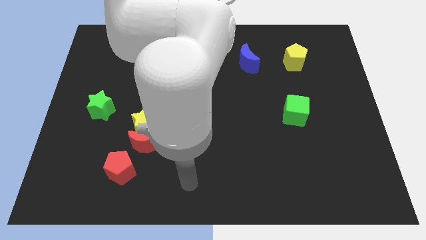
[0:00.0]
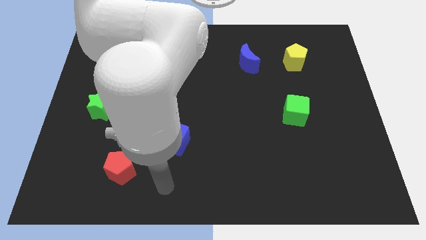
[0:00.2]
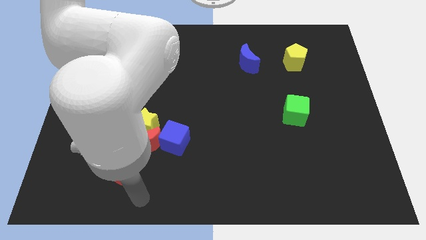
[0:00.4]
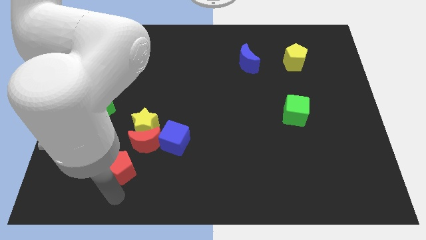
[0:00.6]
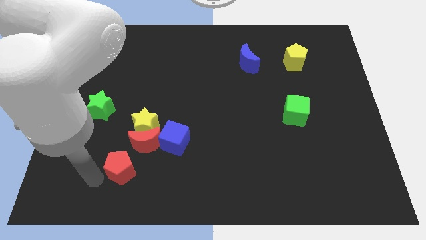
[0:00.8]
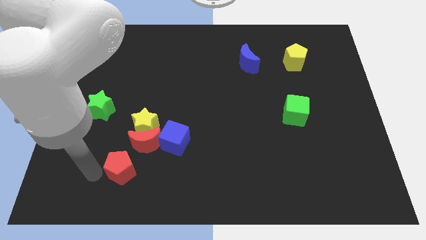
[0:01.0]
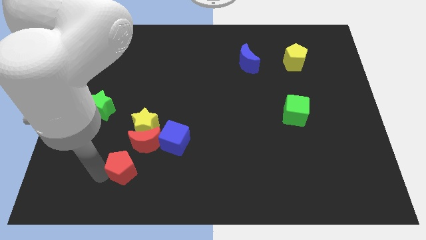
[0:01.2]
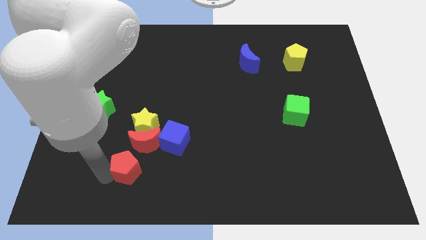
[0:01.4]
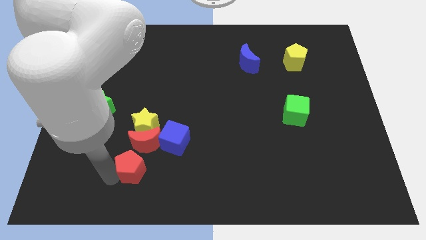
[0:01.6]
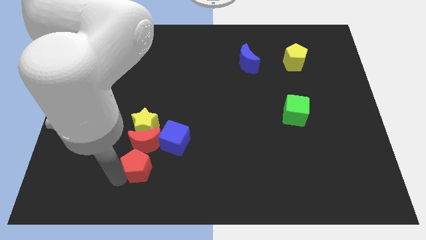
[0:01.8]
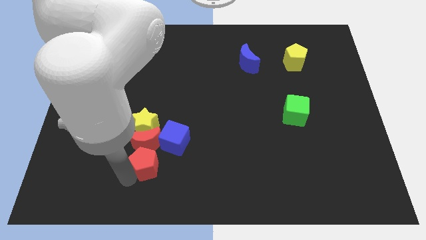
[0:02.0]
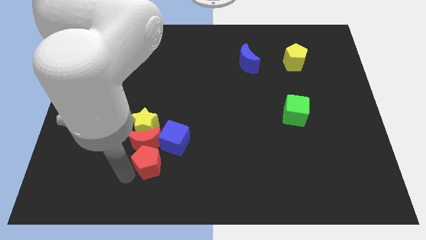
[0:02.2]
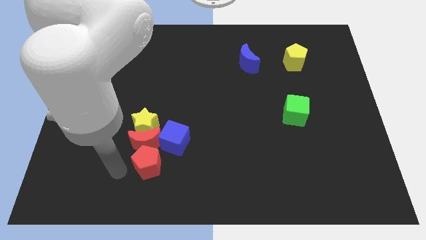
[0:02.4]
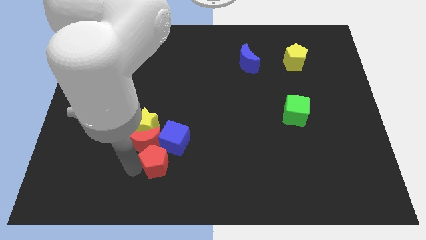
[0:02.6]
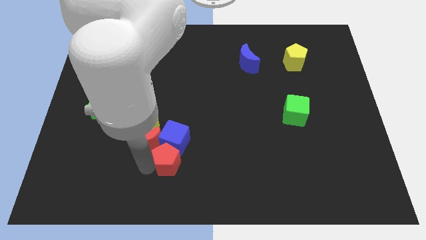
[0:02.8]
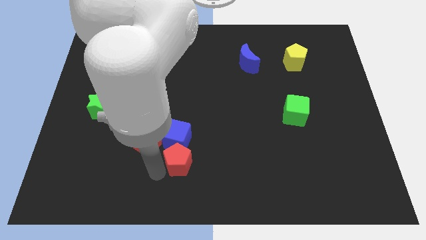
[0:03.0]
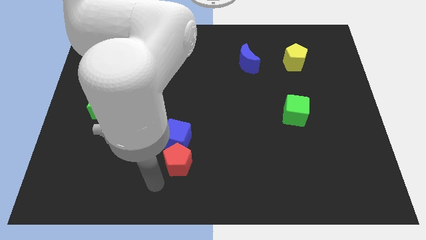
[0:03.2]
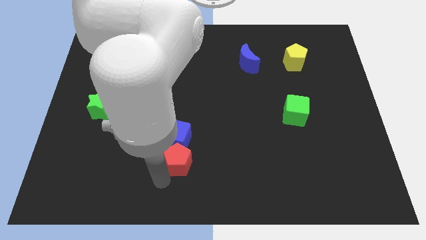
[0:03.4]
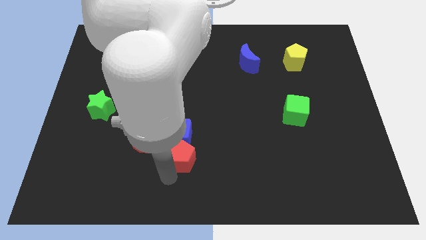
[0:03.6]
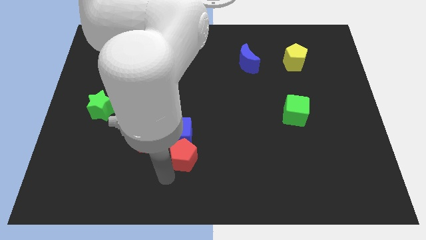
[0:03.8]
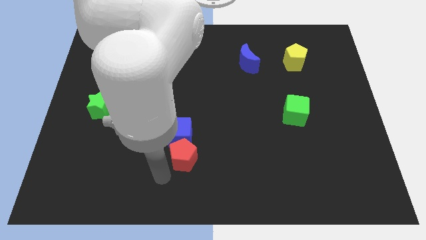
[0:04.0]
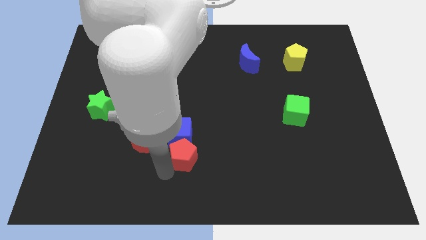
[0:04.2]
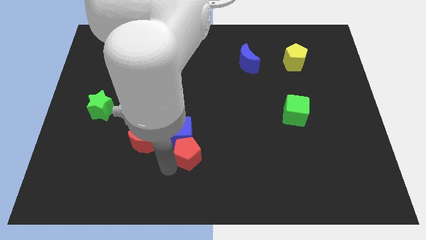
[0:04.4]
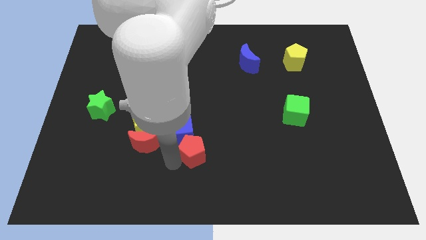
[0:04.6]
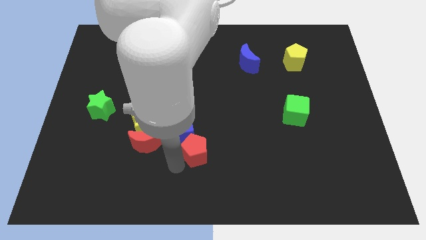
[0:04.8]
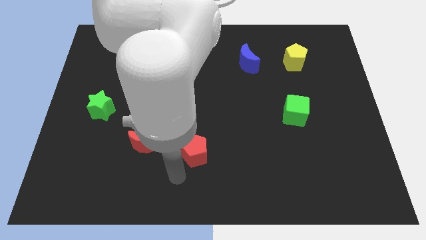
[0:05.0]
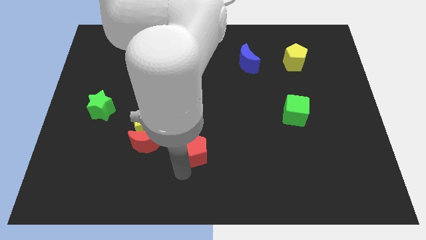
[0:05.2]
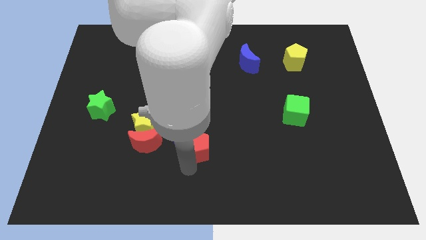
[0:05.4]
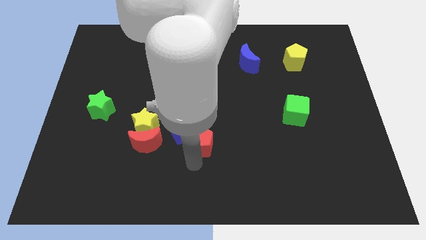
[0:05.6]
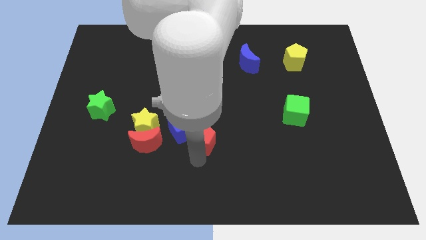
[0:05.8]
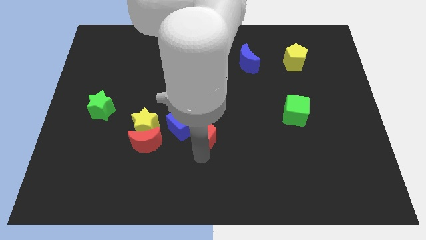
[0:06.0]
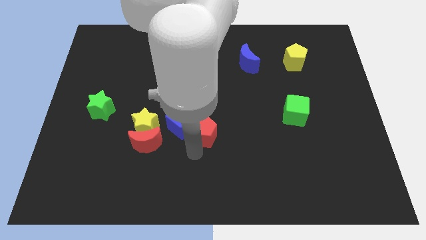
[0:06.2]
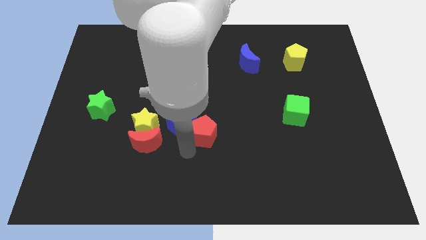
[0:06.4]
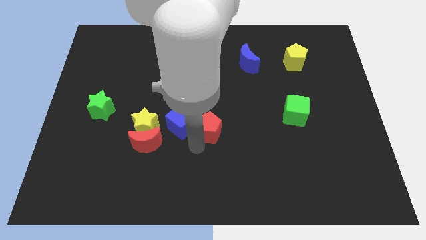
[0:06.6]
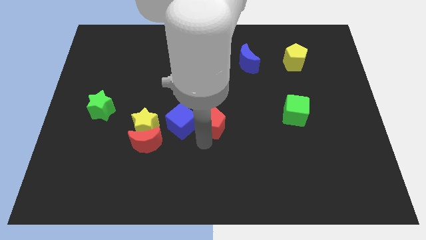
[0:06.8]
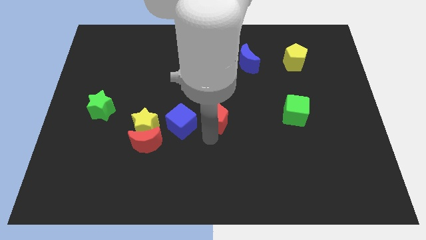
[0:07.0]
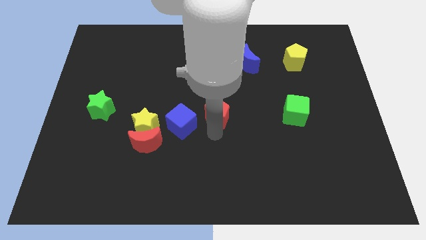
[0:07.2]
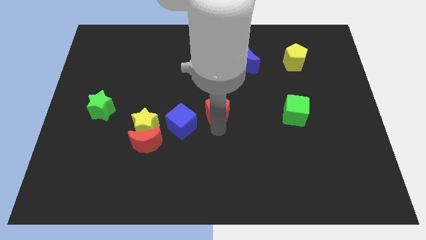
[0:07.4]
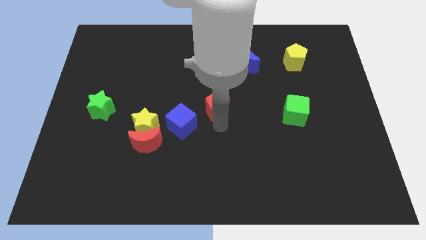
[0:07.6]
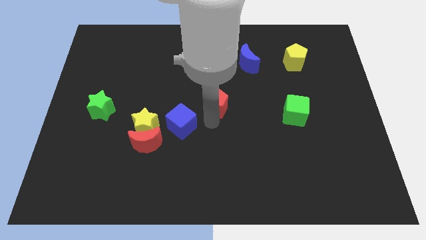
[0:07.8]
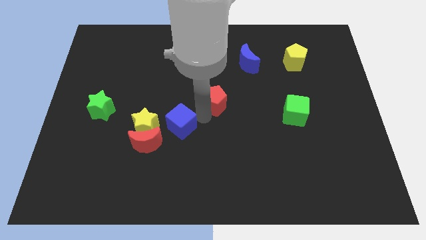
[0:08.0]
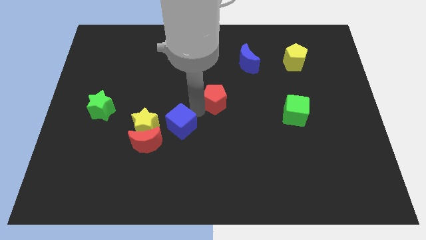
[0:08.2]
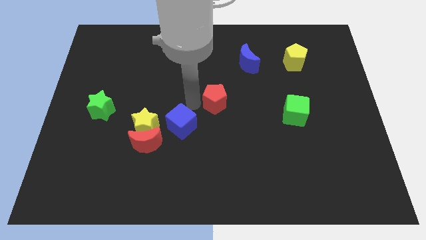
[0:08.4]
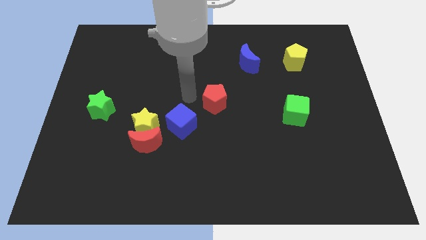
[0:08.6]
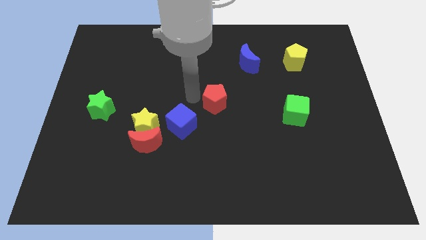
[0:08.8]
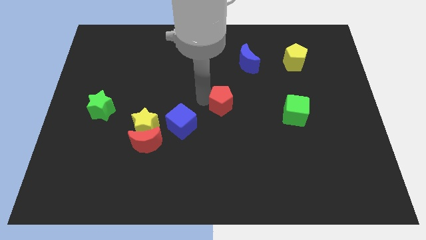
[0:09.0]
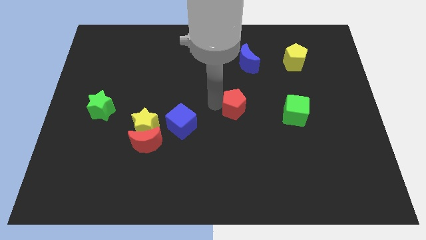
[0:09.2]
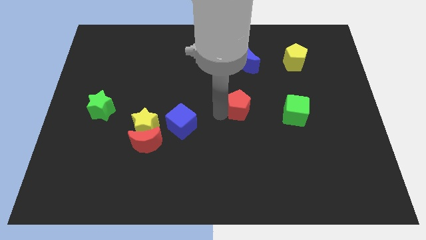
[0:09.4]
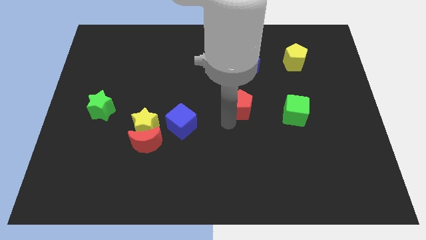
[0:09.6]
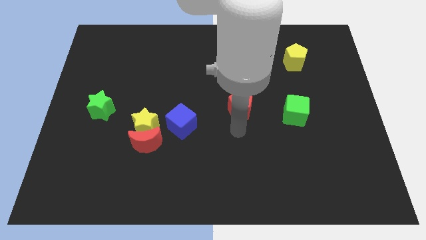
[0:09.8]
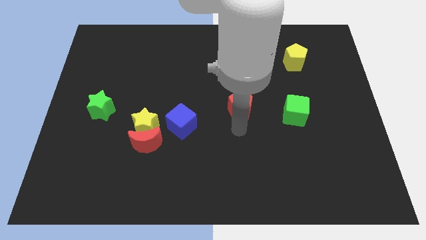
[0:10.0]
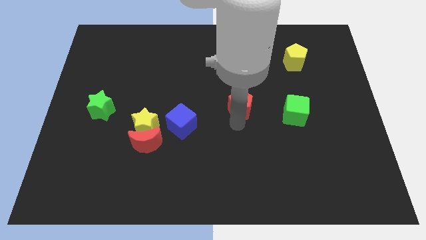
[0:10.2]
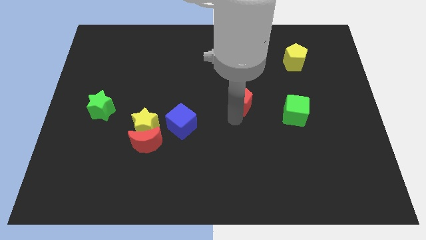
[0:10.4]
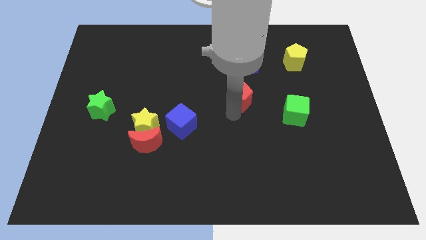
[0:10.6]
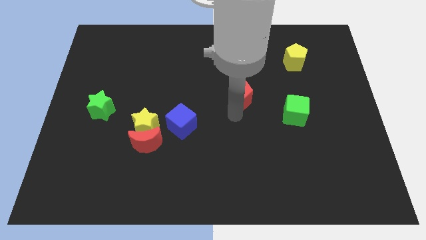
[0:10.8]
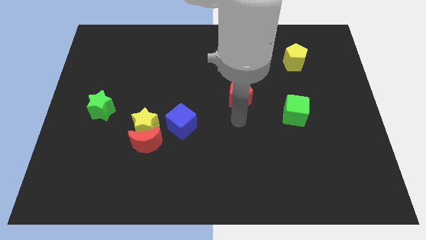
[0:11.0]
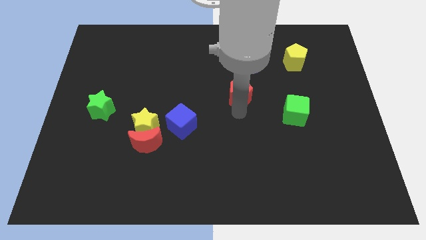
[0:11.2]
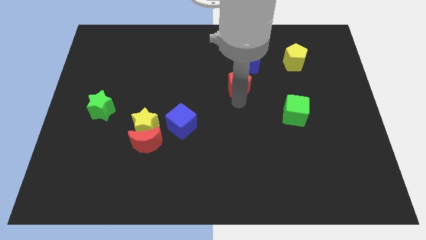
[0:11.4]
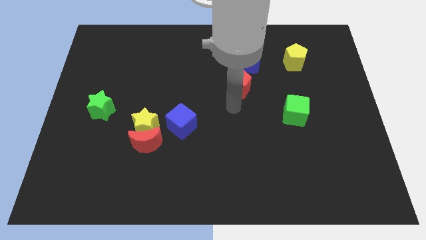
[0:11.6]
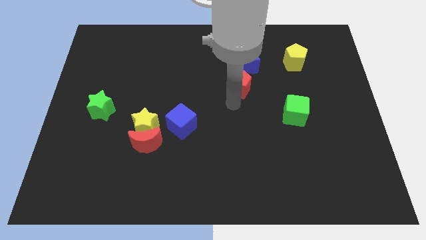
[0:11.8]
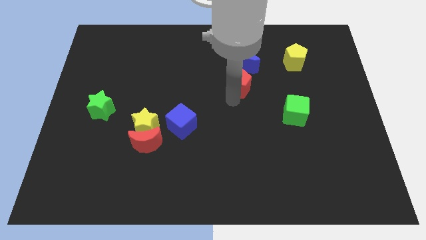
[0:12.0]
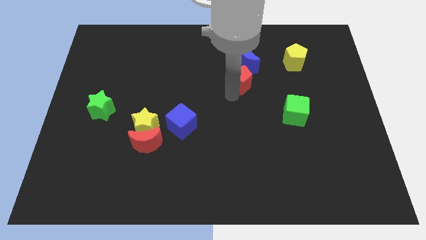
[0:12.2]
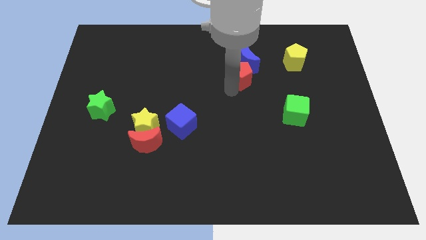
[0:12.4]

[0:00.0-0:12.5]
move the red pentagon towards the blue moon
